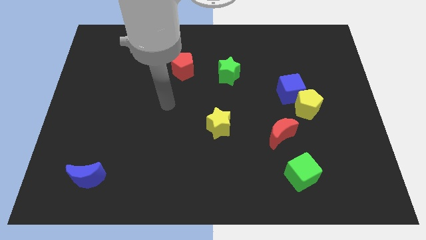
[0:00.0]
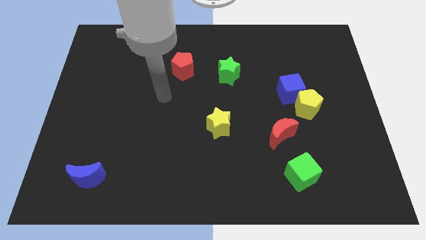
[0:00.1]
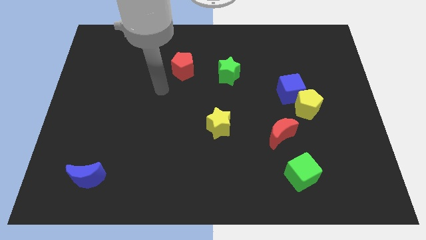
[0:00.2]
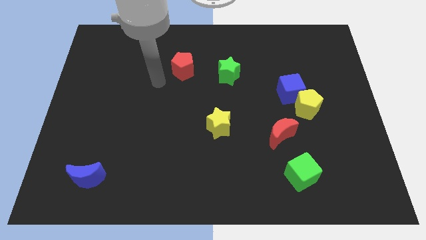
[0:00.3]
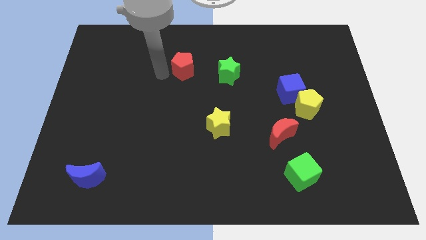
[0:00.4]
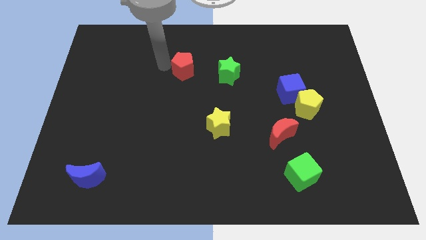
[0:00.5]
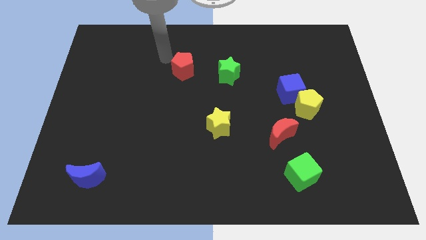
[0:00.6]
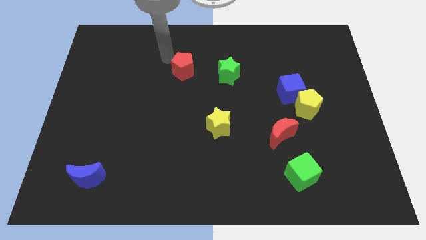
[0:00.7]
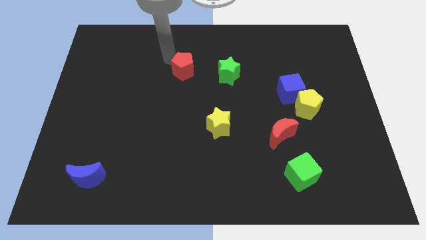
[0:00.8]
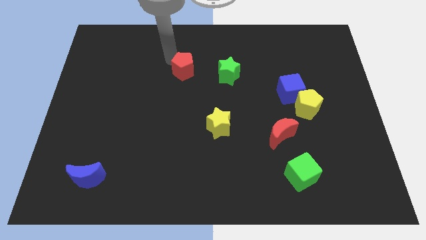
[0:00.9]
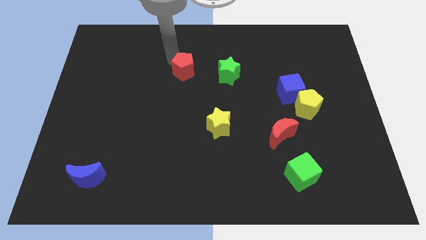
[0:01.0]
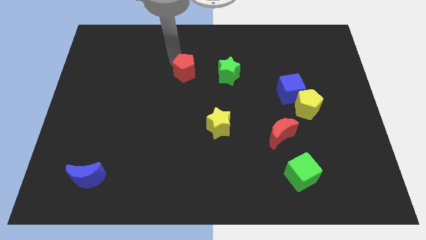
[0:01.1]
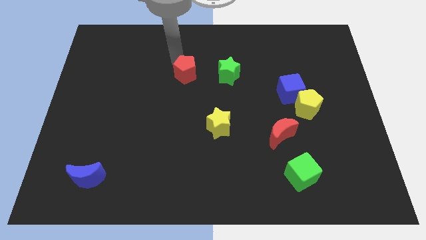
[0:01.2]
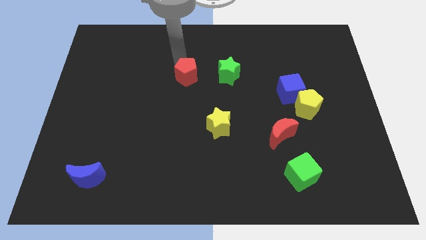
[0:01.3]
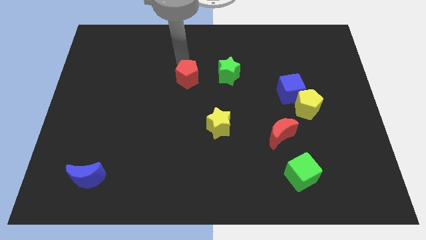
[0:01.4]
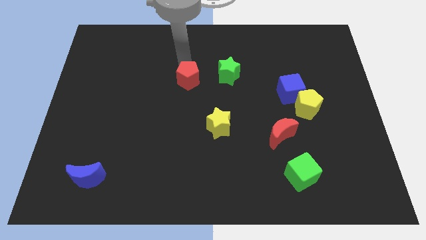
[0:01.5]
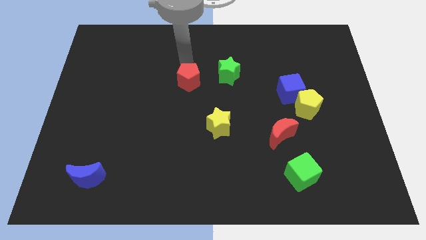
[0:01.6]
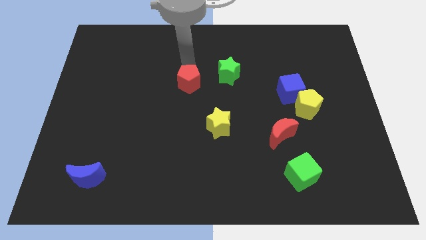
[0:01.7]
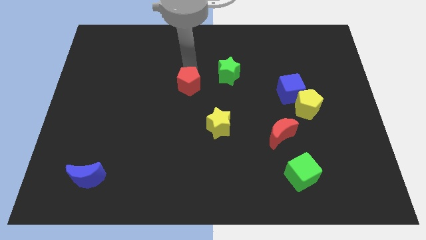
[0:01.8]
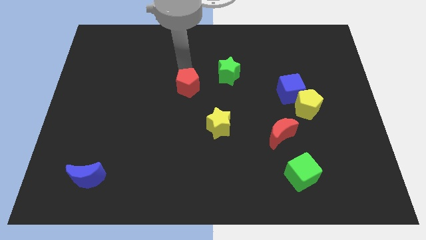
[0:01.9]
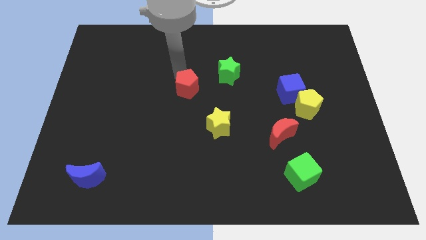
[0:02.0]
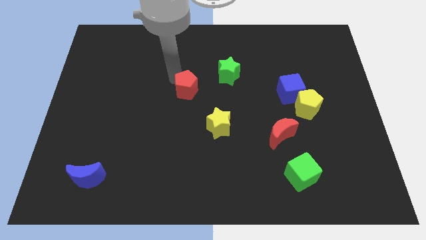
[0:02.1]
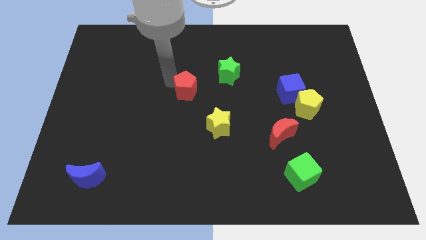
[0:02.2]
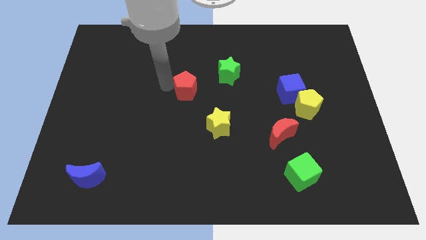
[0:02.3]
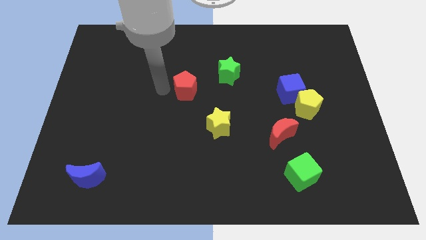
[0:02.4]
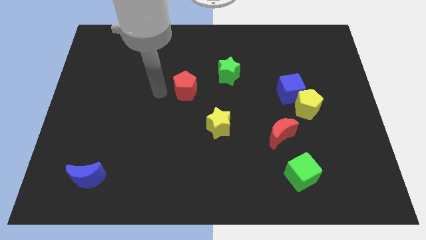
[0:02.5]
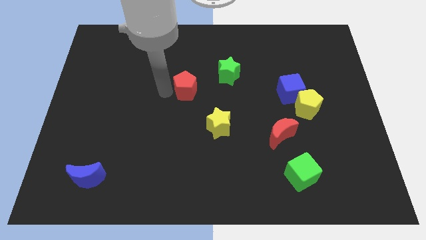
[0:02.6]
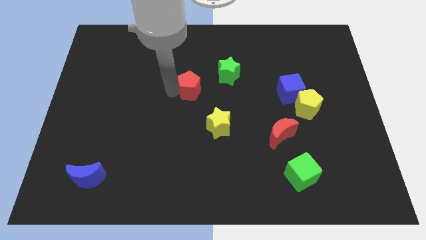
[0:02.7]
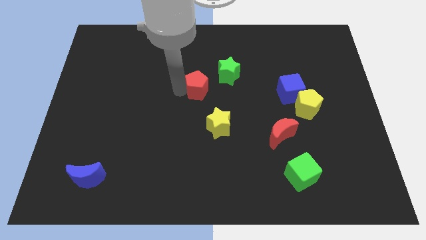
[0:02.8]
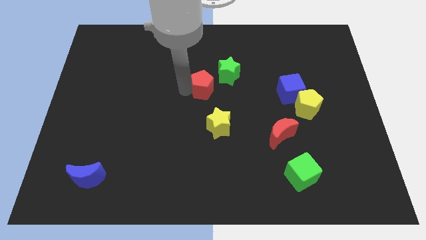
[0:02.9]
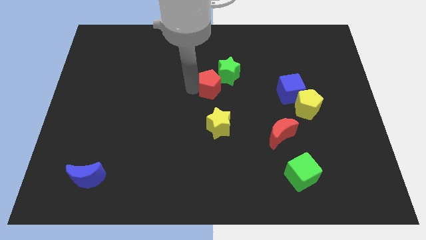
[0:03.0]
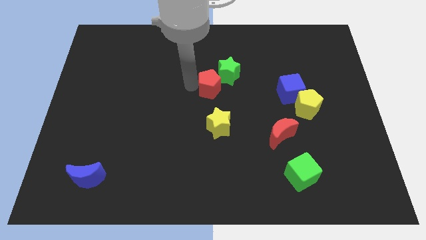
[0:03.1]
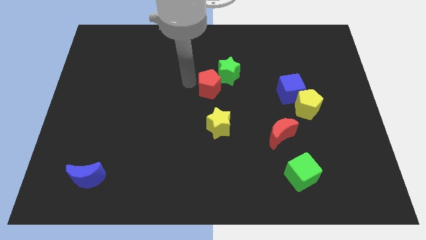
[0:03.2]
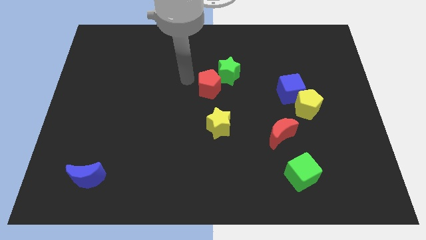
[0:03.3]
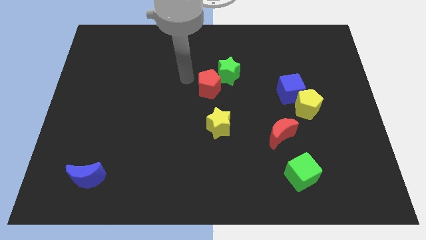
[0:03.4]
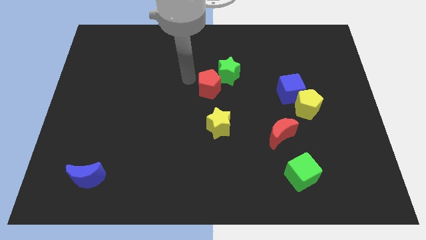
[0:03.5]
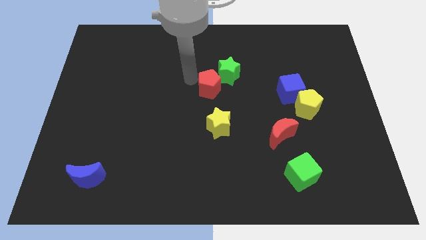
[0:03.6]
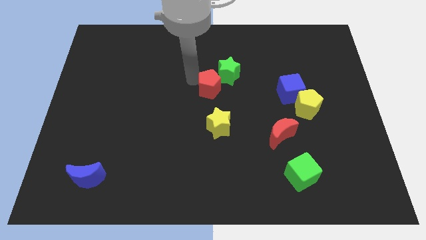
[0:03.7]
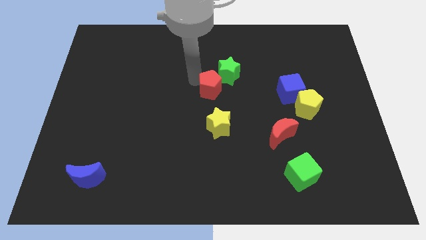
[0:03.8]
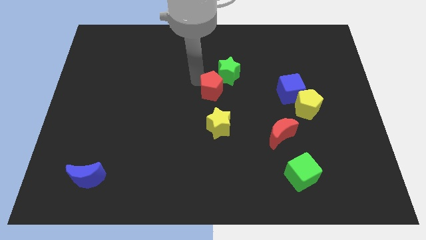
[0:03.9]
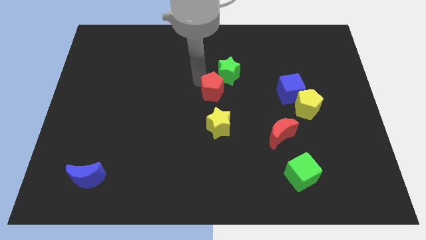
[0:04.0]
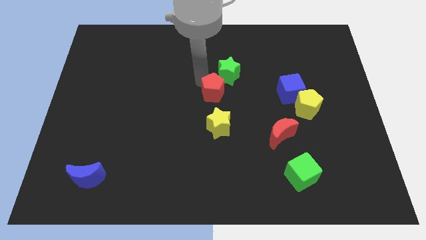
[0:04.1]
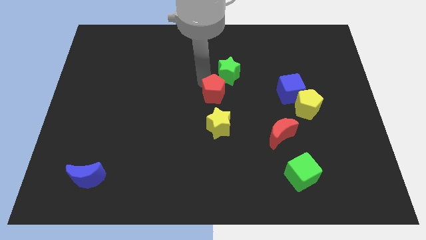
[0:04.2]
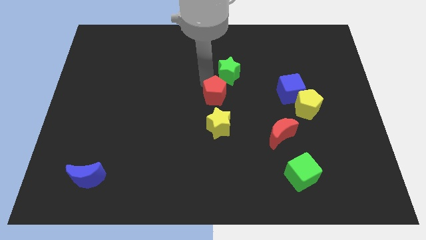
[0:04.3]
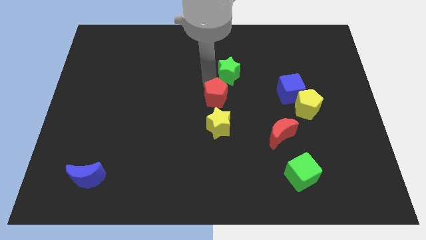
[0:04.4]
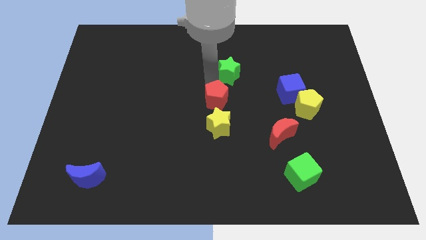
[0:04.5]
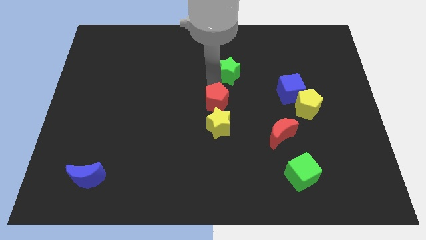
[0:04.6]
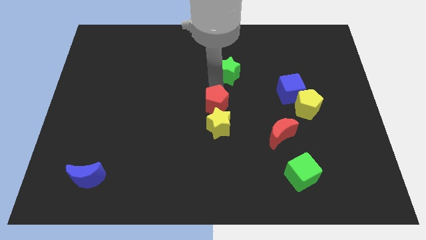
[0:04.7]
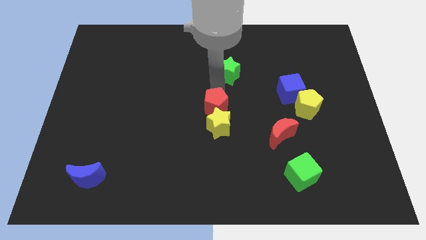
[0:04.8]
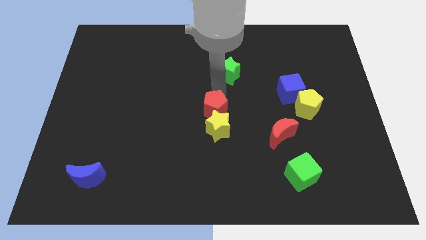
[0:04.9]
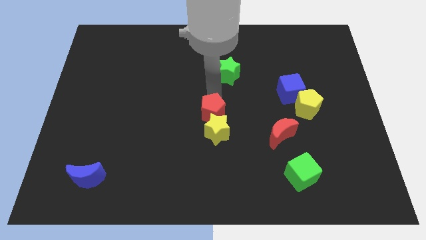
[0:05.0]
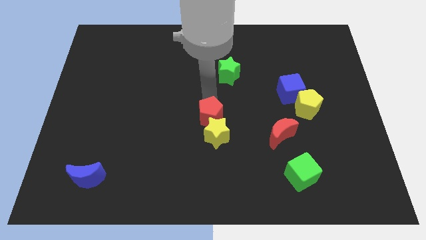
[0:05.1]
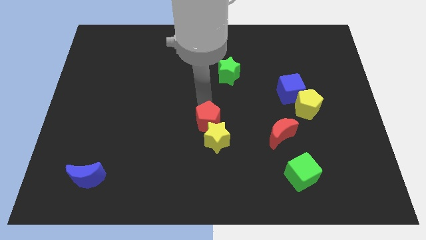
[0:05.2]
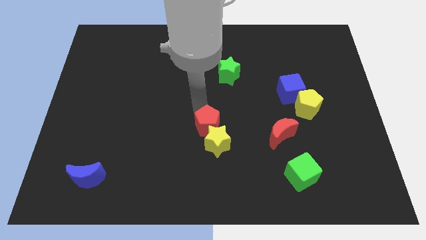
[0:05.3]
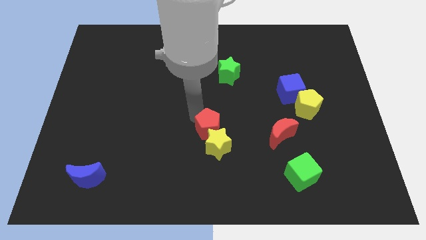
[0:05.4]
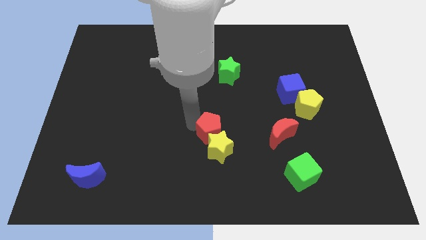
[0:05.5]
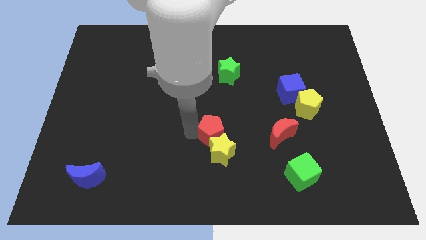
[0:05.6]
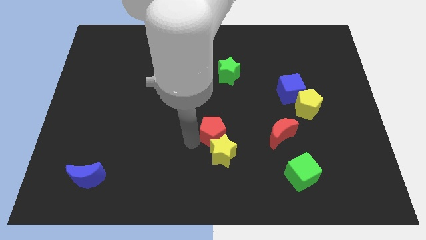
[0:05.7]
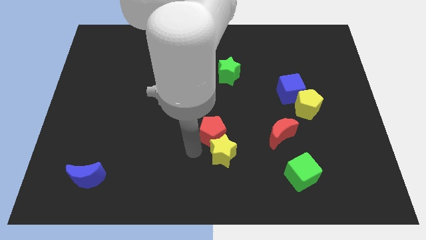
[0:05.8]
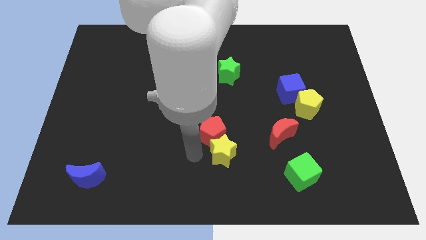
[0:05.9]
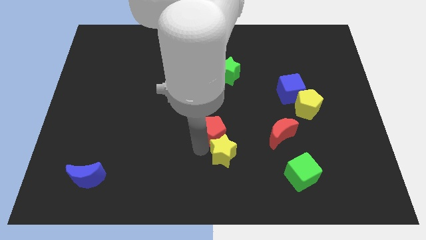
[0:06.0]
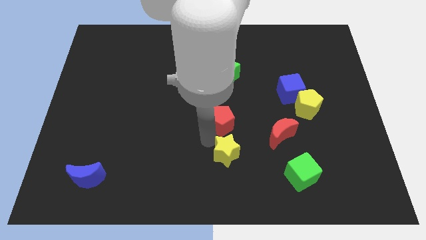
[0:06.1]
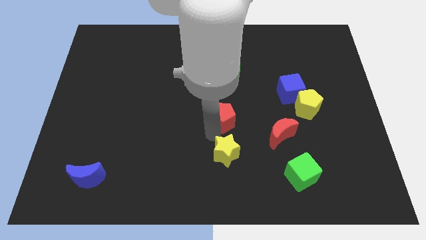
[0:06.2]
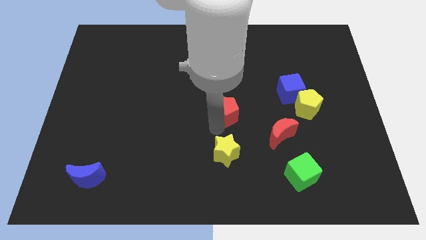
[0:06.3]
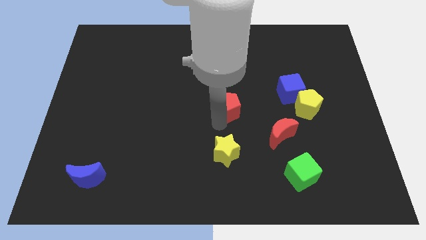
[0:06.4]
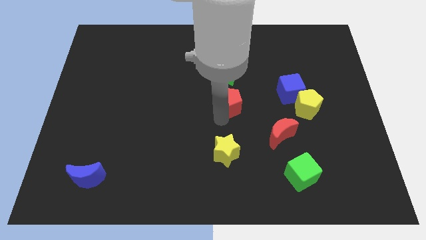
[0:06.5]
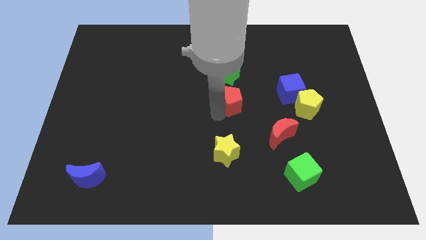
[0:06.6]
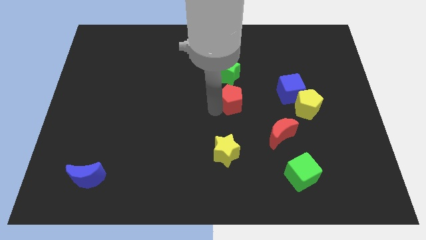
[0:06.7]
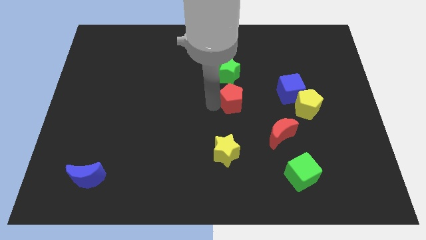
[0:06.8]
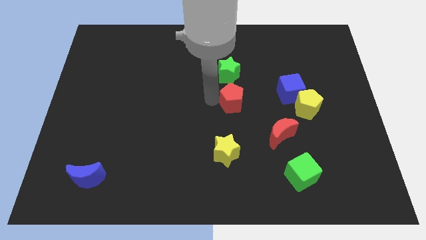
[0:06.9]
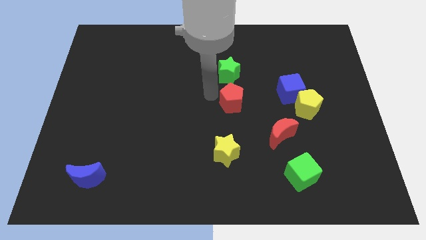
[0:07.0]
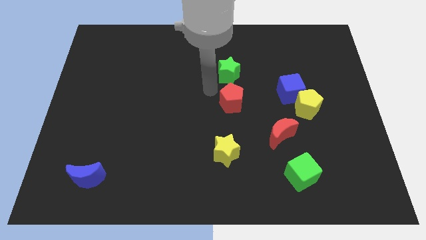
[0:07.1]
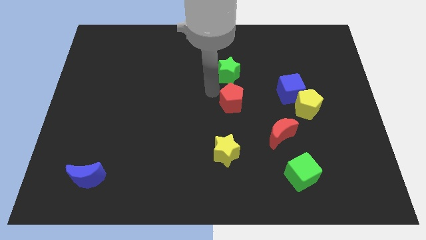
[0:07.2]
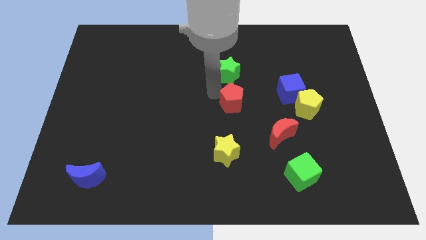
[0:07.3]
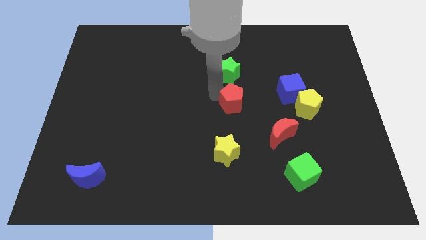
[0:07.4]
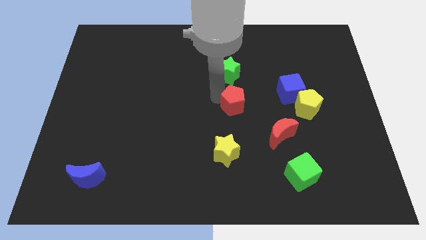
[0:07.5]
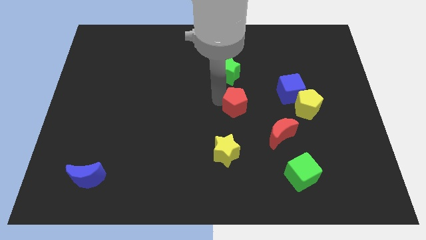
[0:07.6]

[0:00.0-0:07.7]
push the red pentagon to the top left side of the red moon
